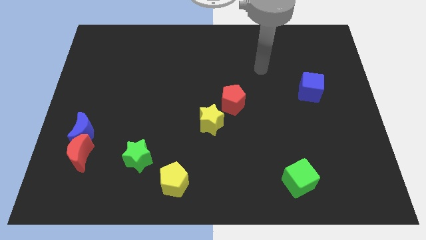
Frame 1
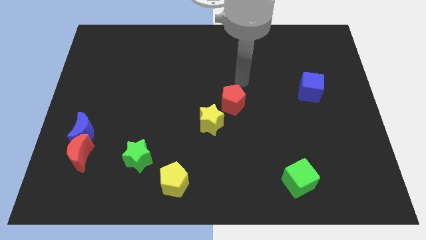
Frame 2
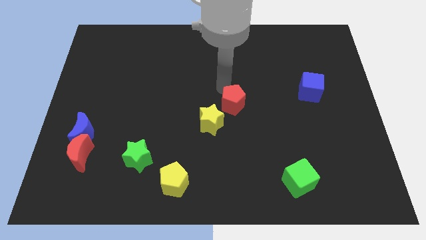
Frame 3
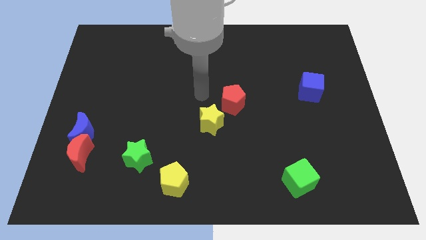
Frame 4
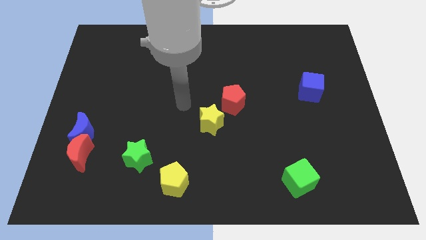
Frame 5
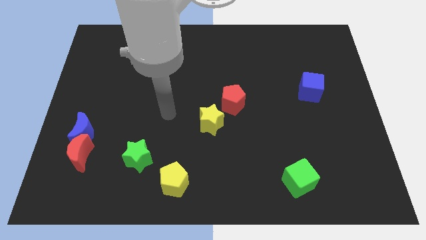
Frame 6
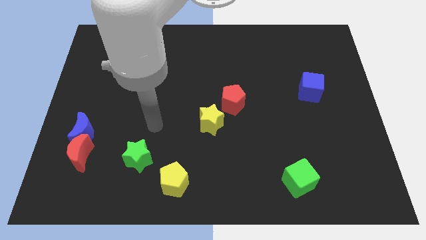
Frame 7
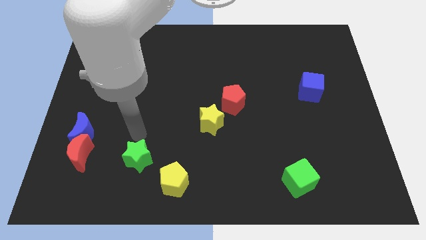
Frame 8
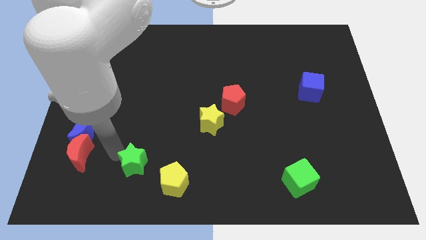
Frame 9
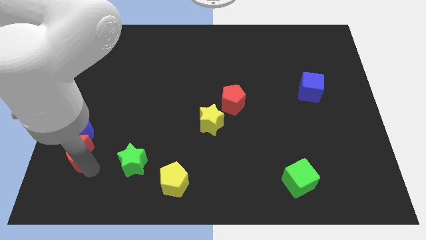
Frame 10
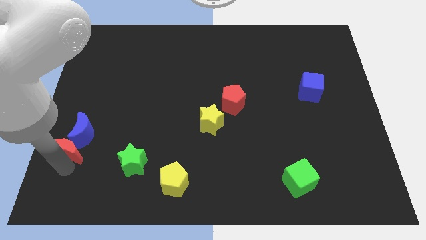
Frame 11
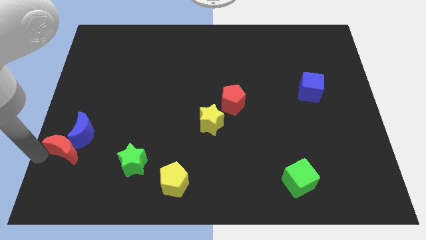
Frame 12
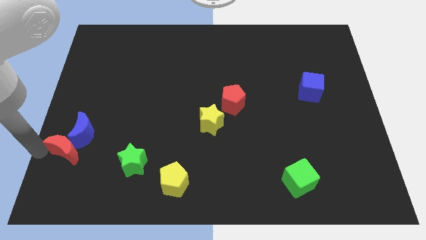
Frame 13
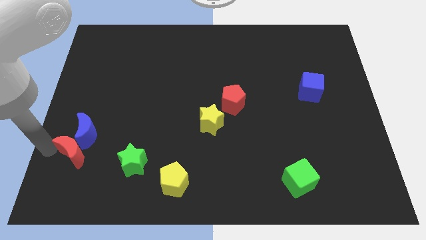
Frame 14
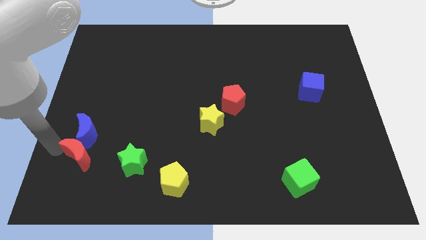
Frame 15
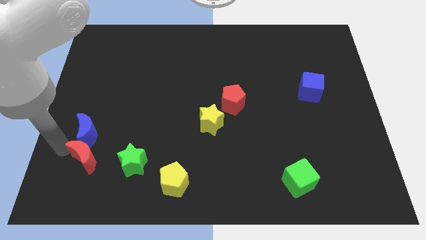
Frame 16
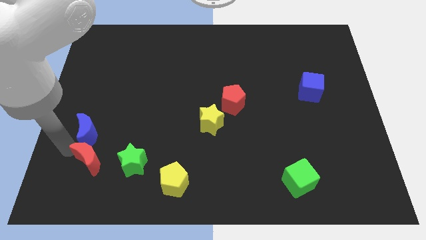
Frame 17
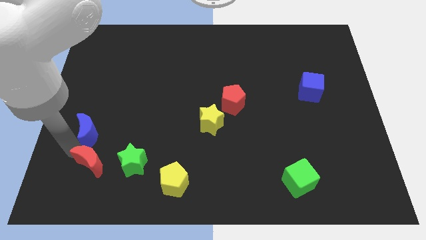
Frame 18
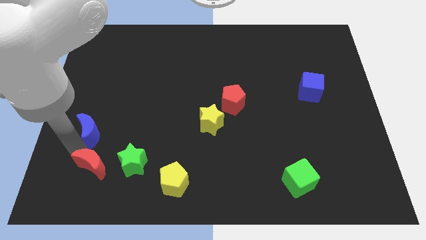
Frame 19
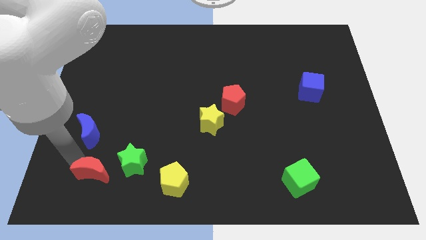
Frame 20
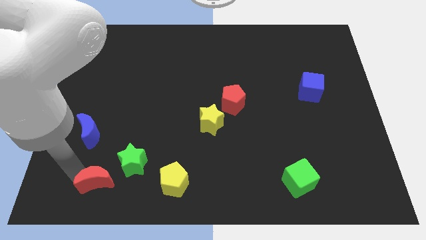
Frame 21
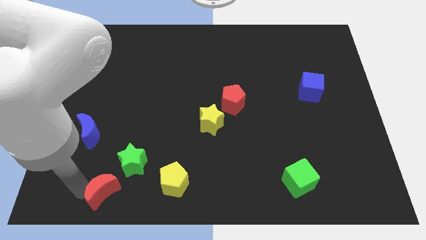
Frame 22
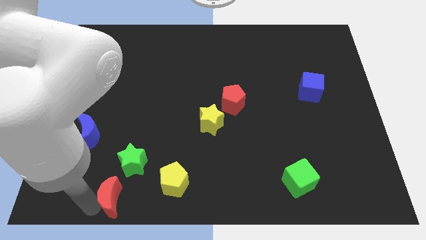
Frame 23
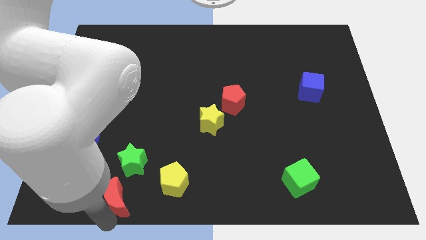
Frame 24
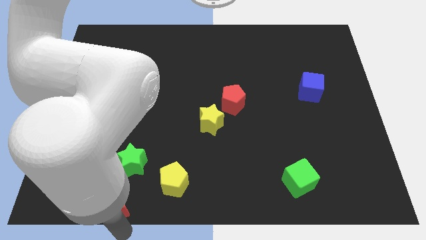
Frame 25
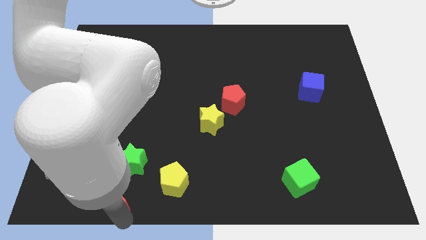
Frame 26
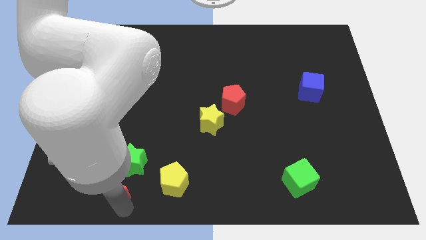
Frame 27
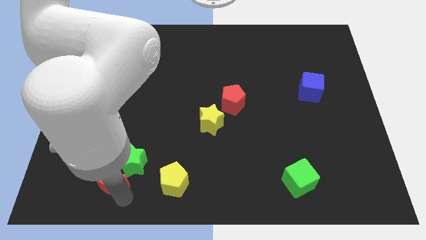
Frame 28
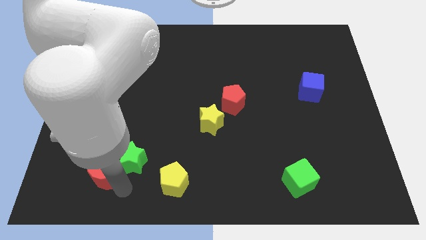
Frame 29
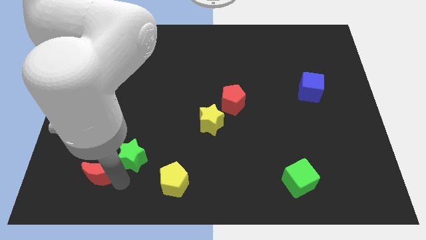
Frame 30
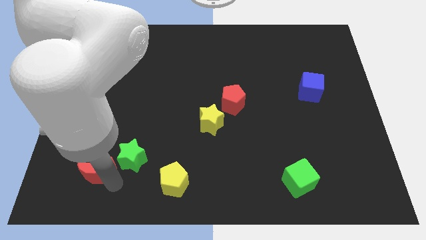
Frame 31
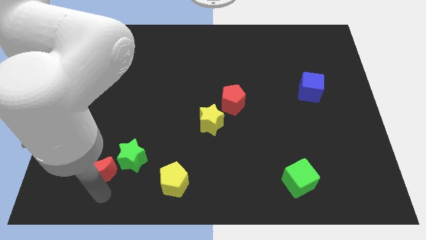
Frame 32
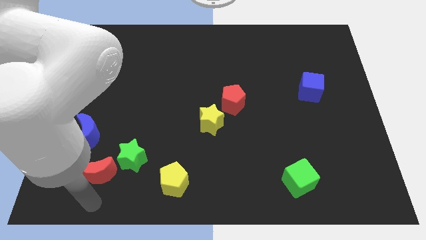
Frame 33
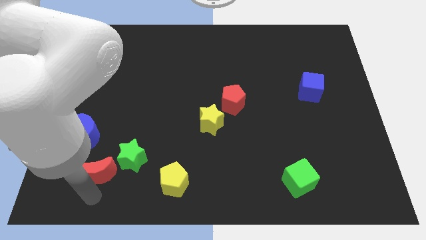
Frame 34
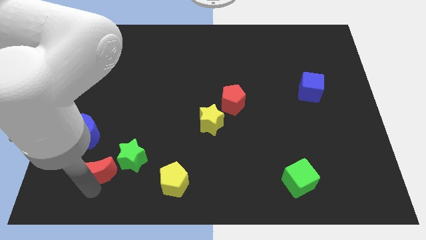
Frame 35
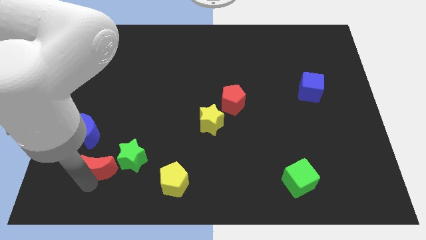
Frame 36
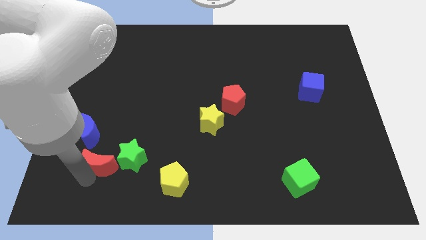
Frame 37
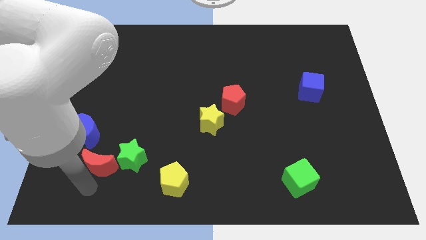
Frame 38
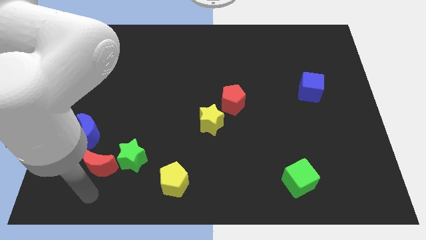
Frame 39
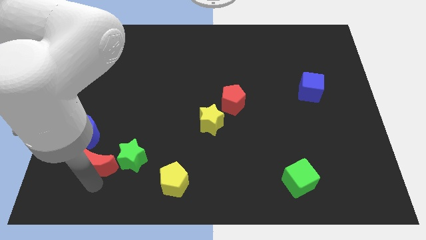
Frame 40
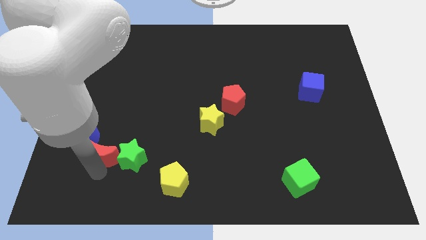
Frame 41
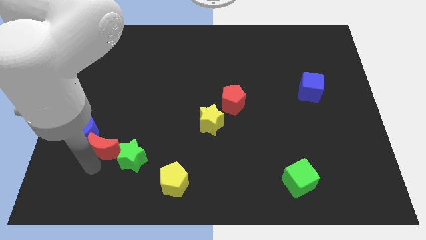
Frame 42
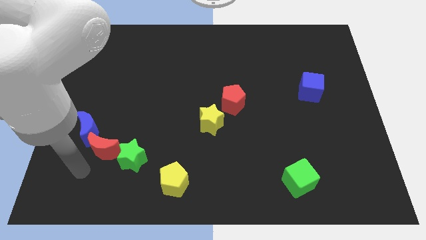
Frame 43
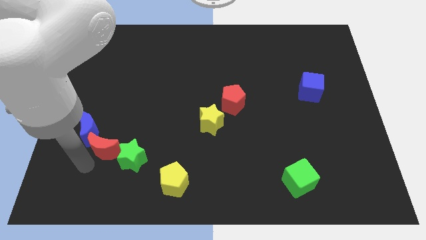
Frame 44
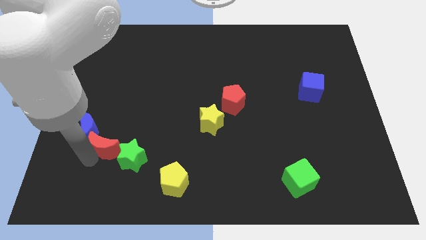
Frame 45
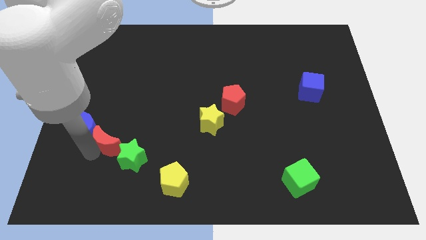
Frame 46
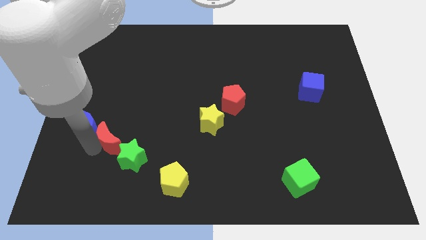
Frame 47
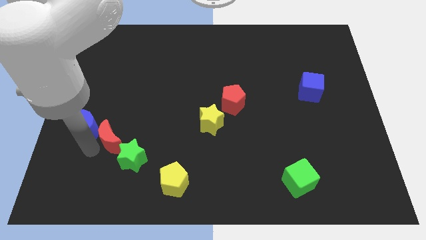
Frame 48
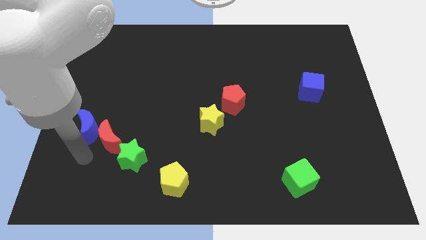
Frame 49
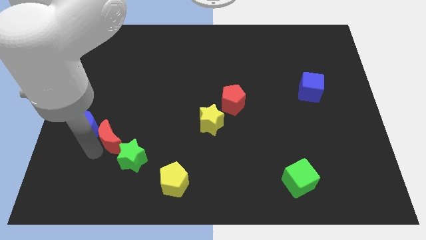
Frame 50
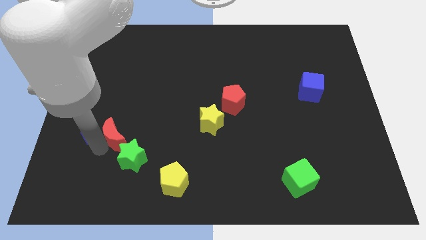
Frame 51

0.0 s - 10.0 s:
push the red moon up and right diagonally a little bit

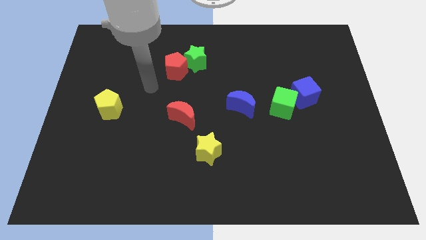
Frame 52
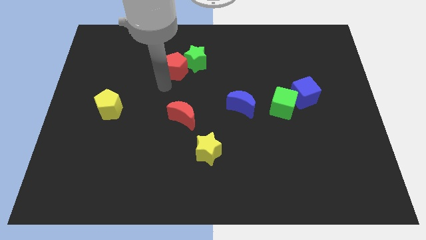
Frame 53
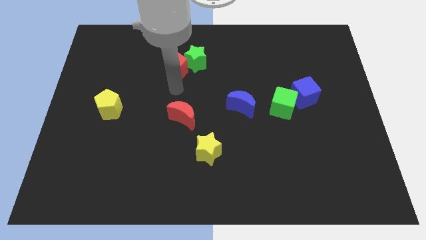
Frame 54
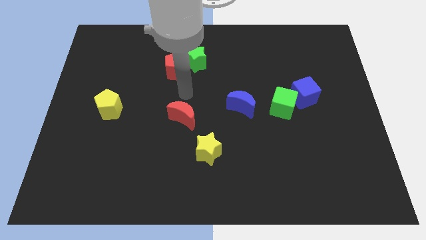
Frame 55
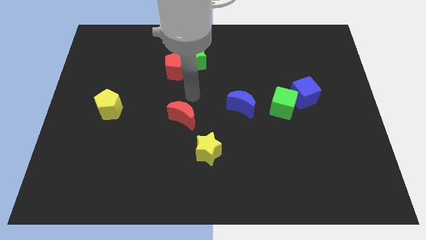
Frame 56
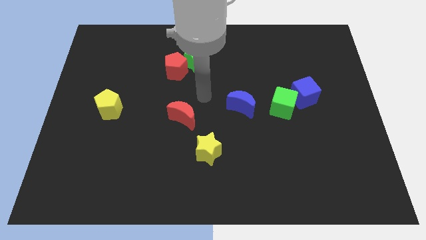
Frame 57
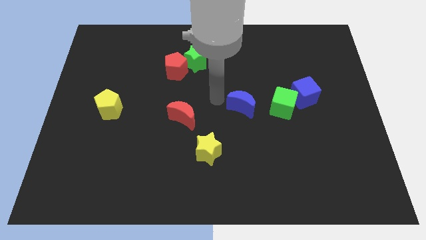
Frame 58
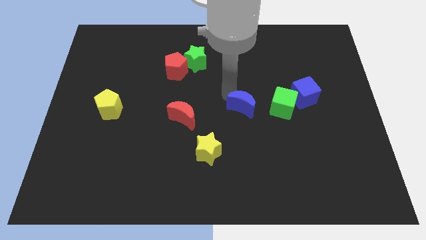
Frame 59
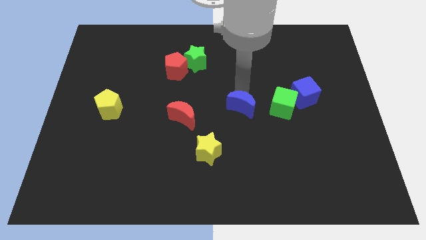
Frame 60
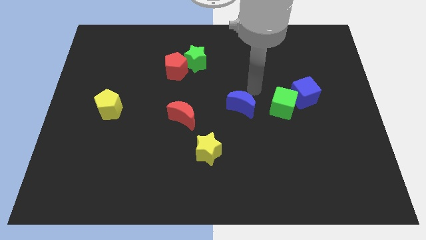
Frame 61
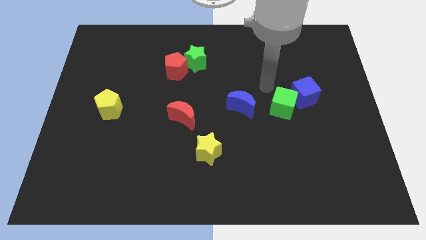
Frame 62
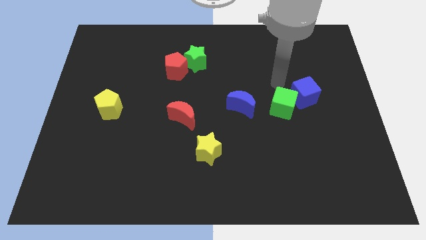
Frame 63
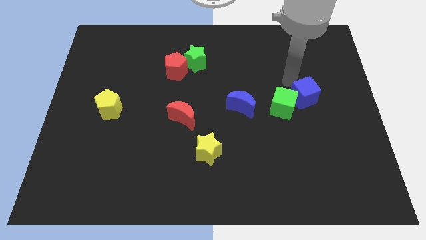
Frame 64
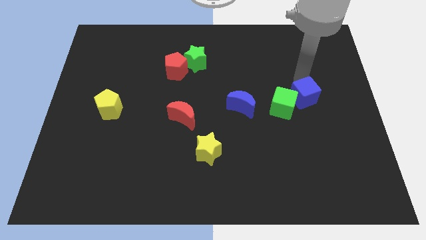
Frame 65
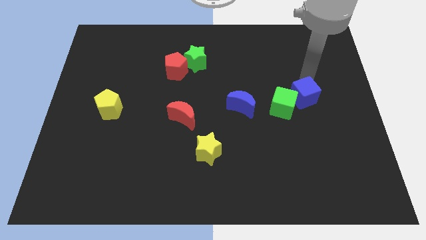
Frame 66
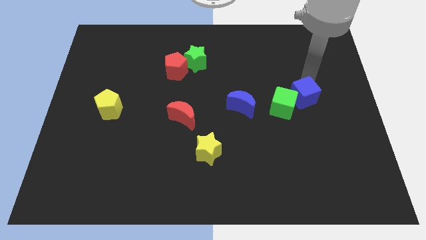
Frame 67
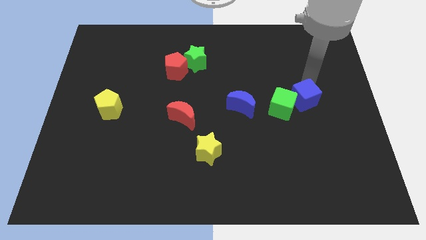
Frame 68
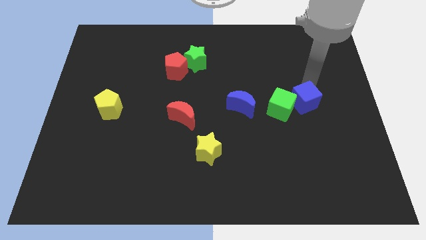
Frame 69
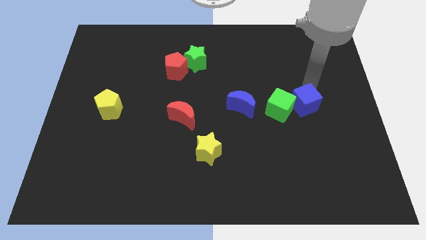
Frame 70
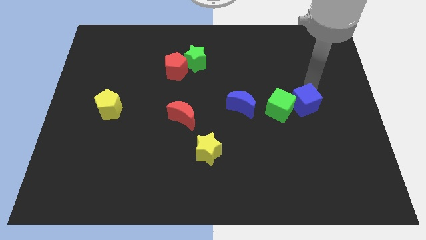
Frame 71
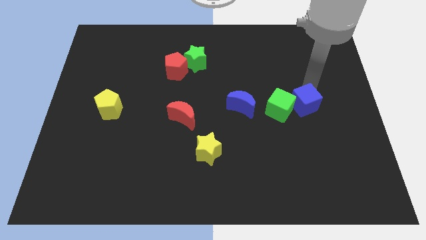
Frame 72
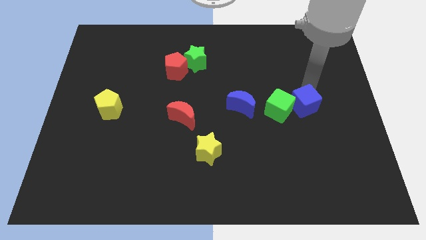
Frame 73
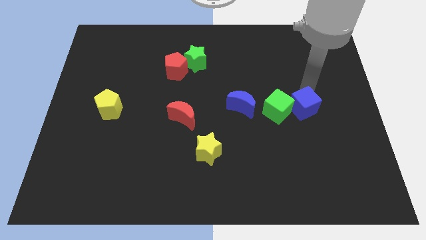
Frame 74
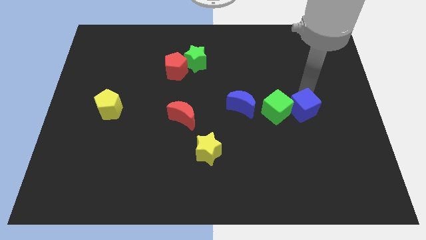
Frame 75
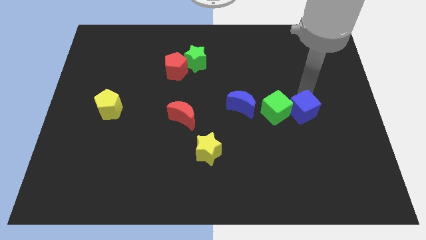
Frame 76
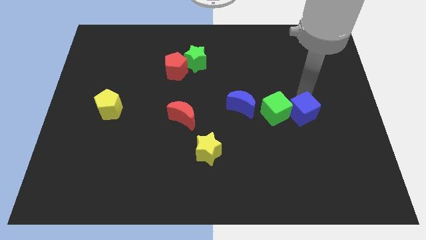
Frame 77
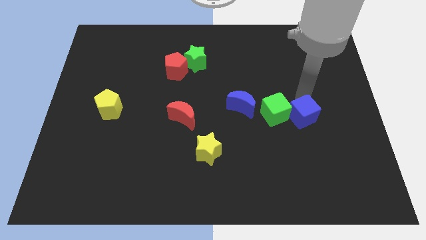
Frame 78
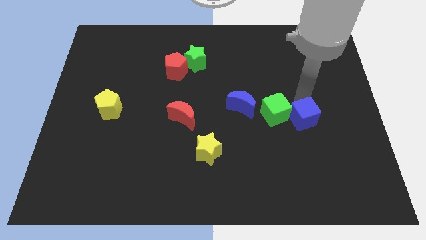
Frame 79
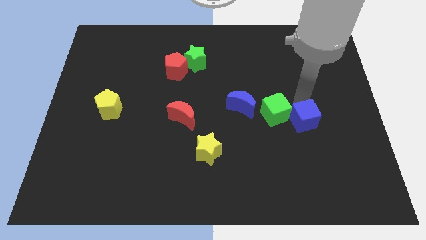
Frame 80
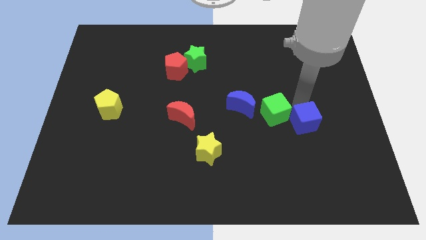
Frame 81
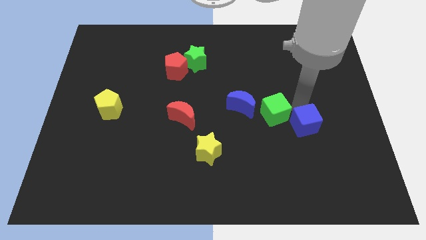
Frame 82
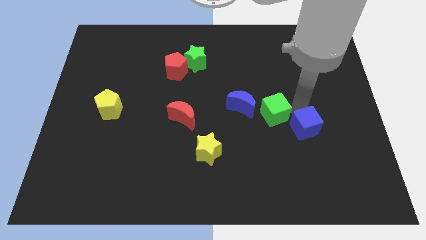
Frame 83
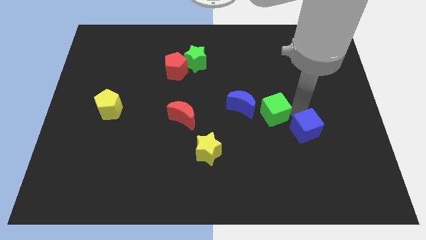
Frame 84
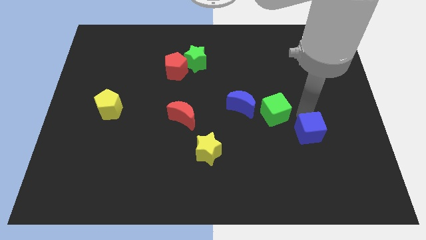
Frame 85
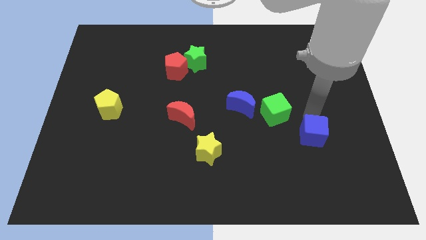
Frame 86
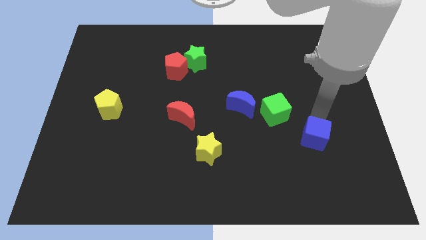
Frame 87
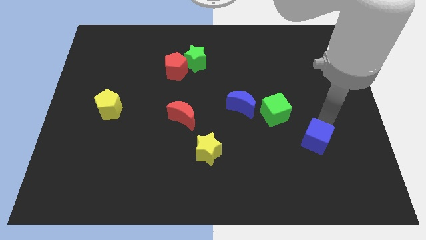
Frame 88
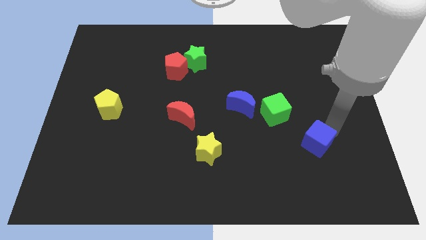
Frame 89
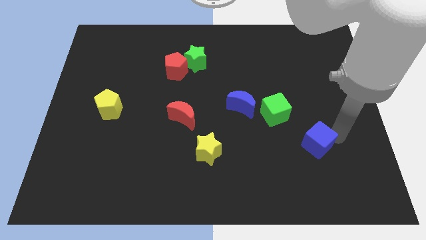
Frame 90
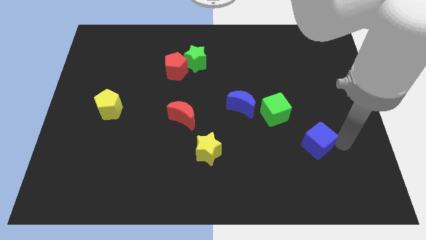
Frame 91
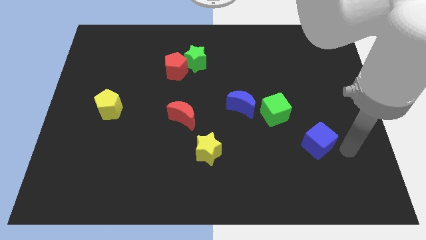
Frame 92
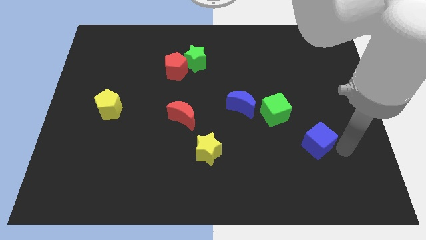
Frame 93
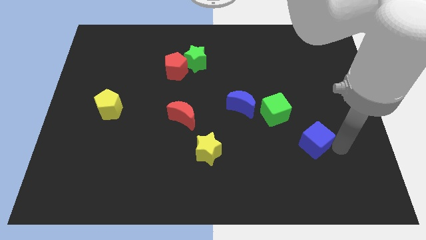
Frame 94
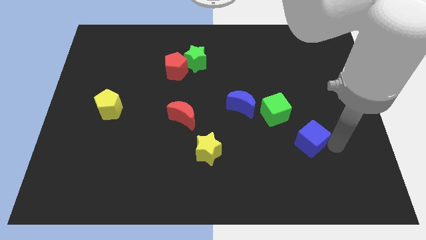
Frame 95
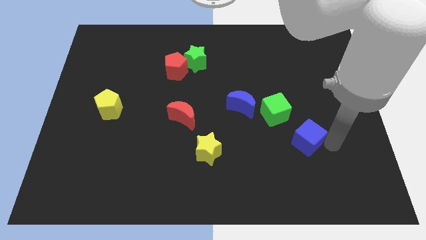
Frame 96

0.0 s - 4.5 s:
slightly slide the blue cube downwards and to the left
